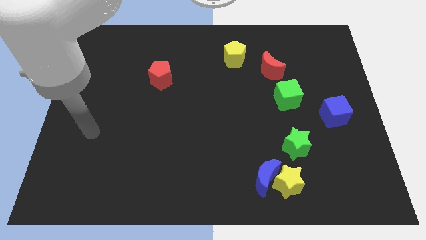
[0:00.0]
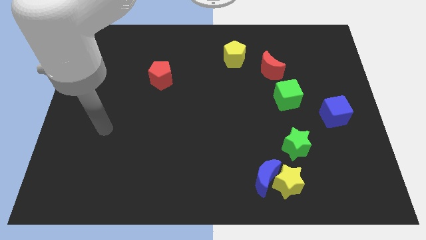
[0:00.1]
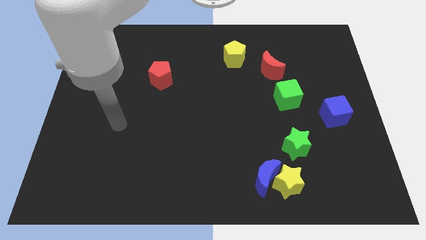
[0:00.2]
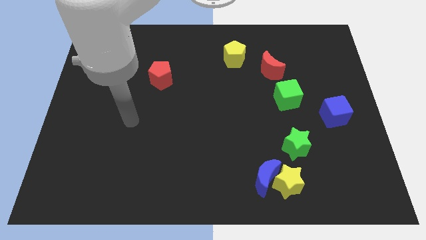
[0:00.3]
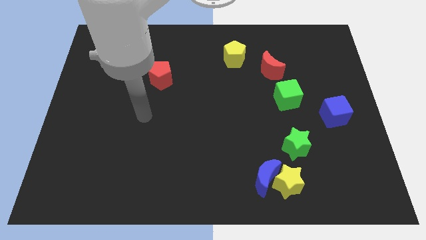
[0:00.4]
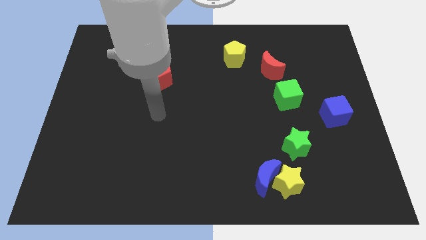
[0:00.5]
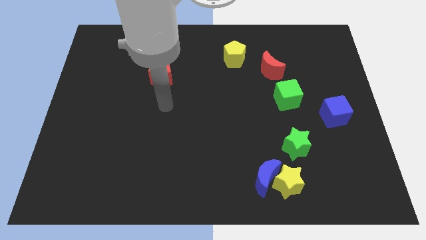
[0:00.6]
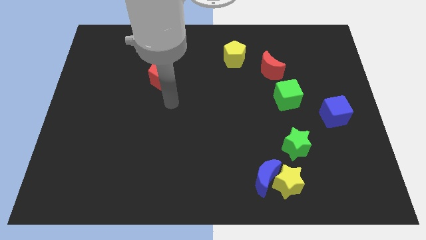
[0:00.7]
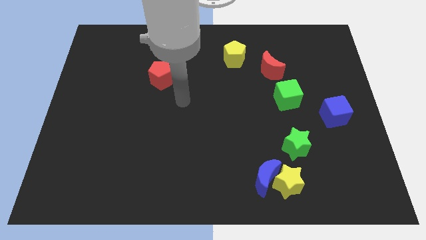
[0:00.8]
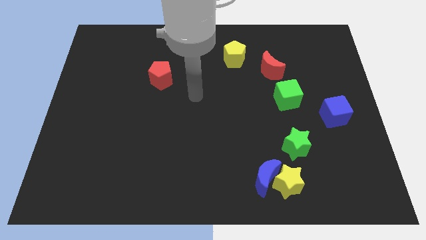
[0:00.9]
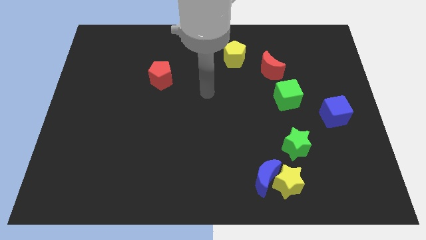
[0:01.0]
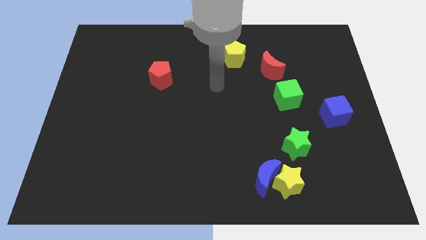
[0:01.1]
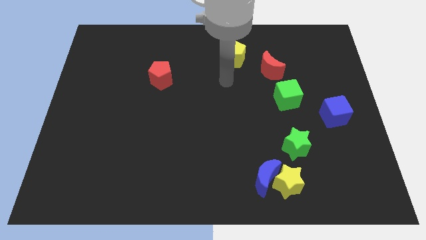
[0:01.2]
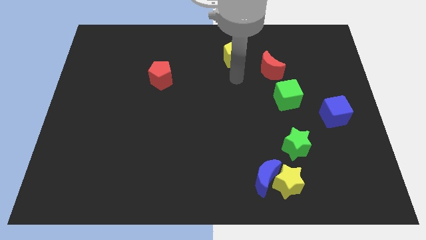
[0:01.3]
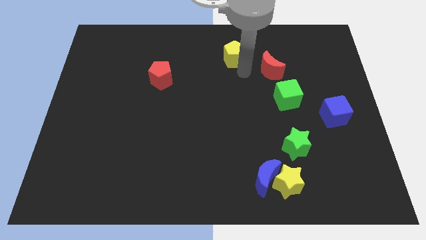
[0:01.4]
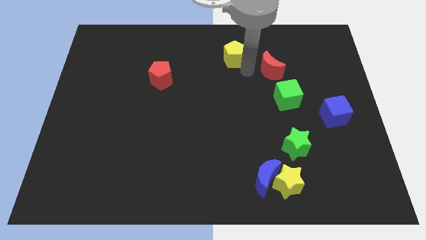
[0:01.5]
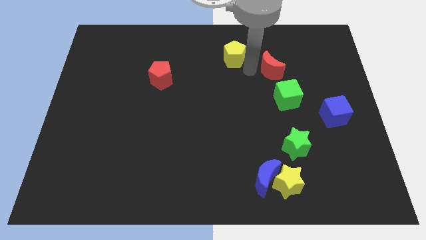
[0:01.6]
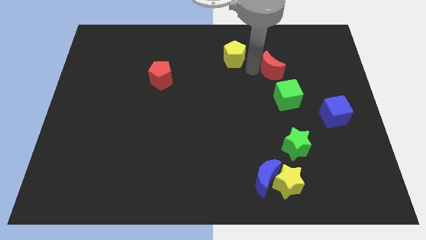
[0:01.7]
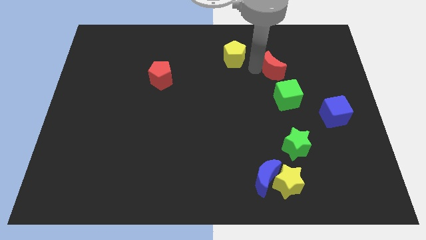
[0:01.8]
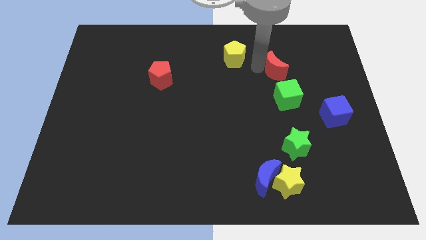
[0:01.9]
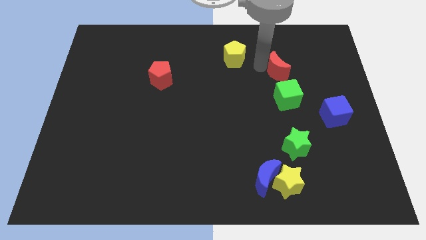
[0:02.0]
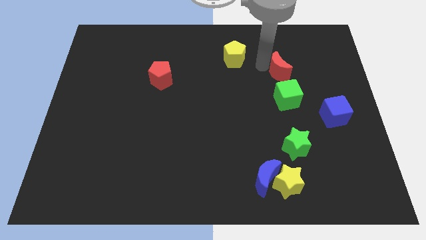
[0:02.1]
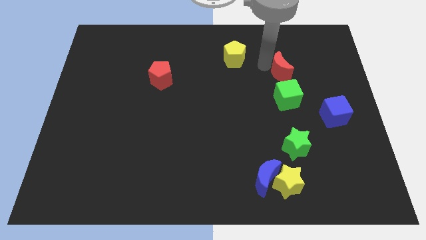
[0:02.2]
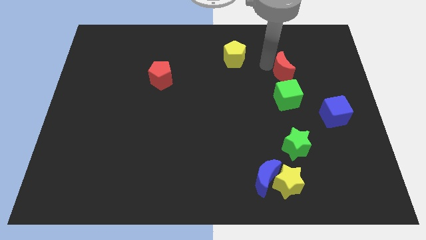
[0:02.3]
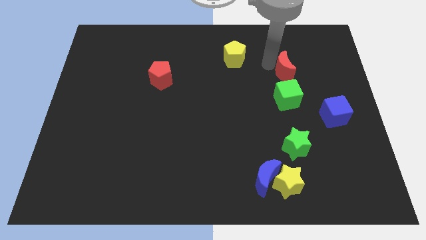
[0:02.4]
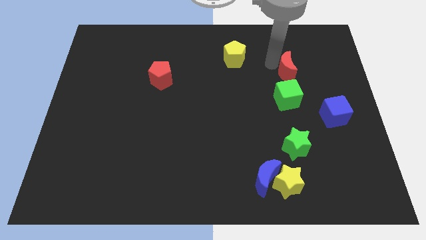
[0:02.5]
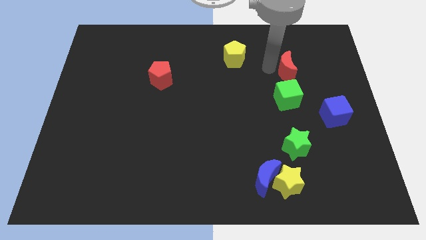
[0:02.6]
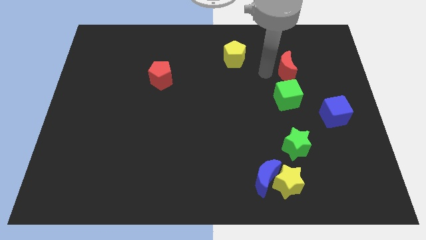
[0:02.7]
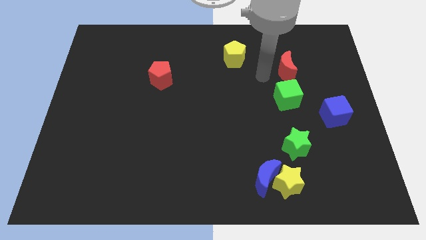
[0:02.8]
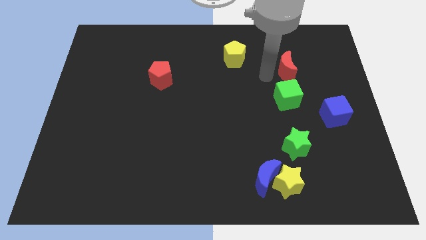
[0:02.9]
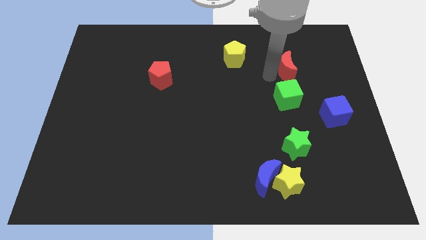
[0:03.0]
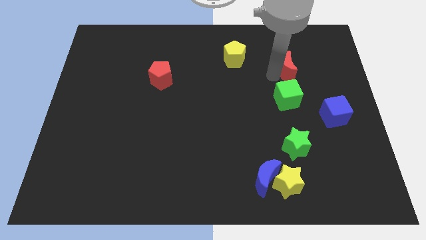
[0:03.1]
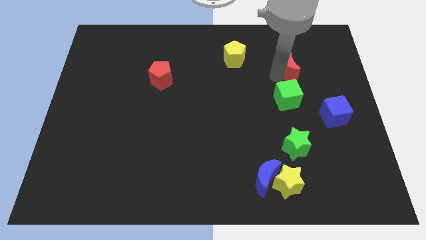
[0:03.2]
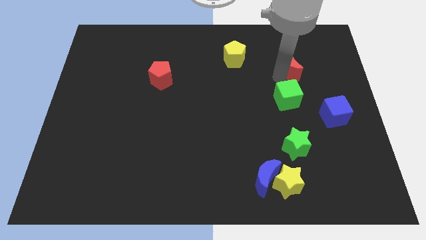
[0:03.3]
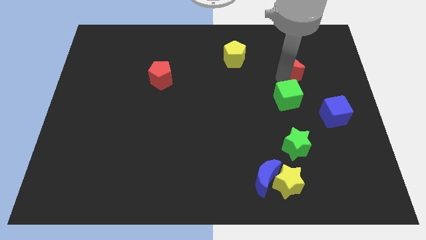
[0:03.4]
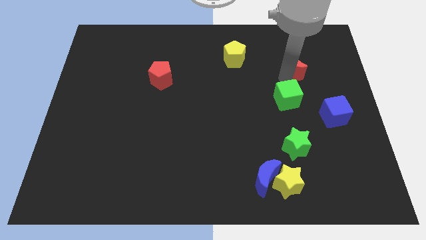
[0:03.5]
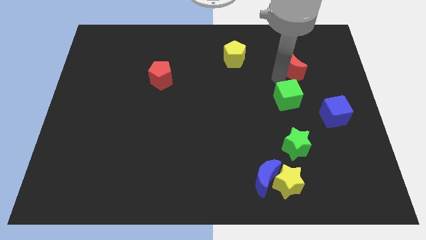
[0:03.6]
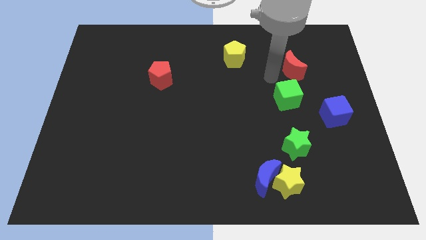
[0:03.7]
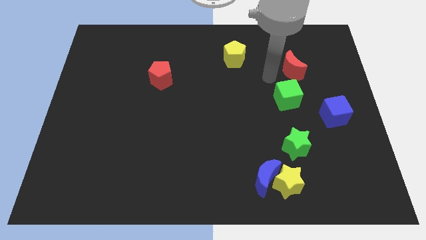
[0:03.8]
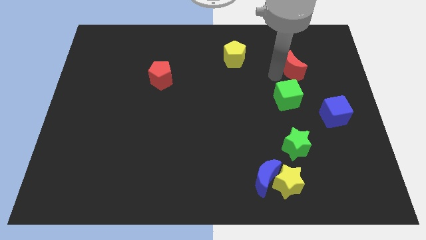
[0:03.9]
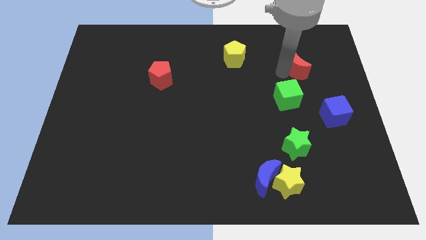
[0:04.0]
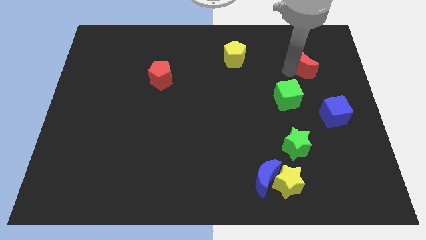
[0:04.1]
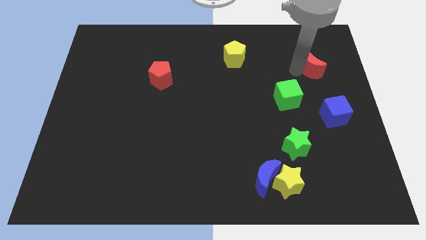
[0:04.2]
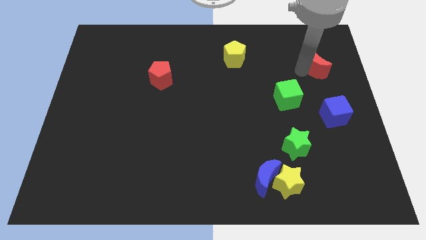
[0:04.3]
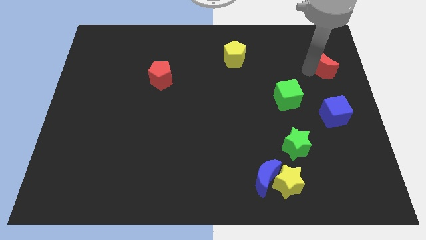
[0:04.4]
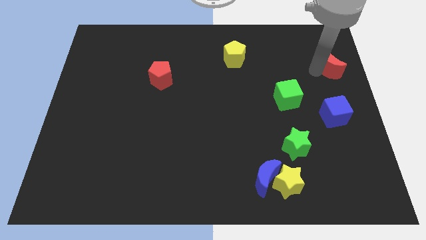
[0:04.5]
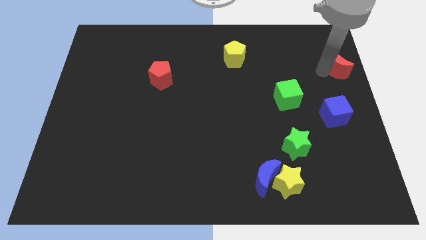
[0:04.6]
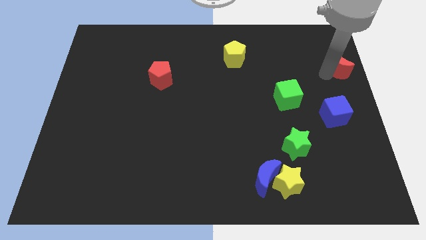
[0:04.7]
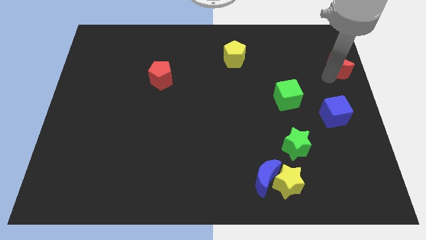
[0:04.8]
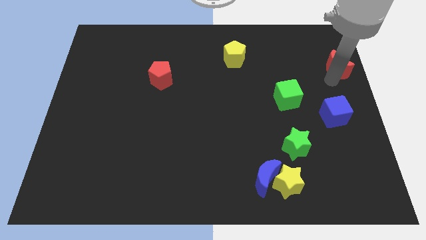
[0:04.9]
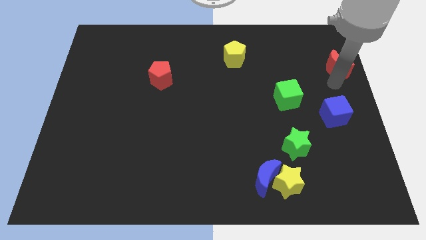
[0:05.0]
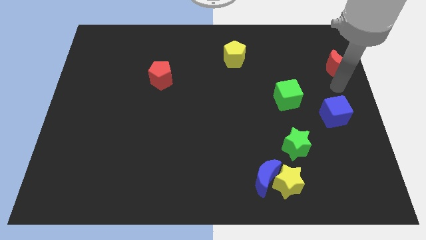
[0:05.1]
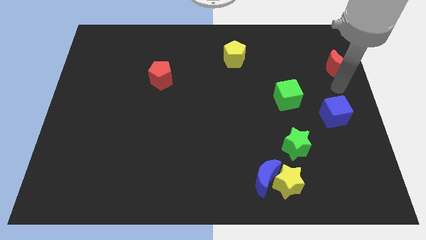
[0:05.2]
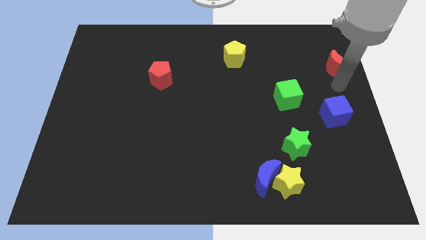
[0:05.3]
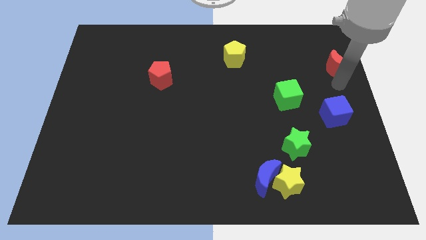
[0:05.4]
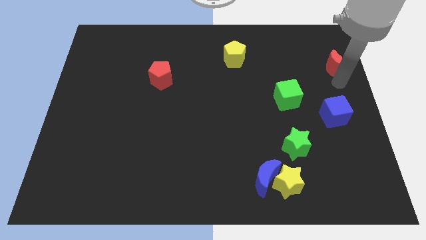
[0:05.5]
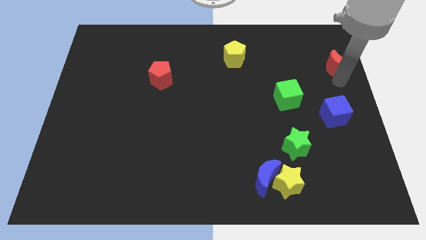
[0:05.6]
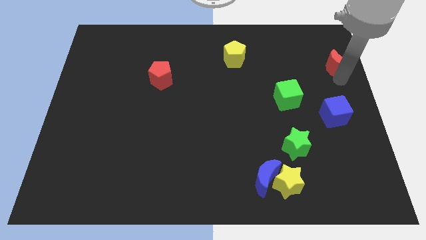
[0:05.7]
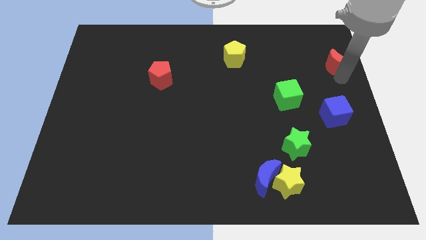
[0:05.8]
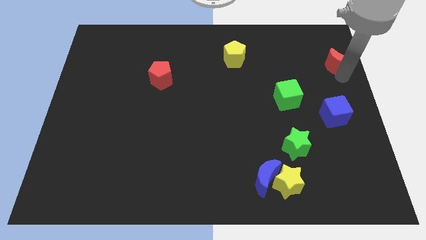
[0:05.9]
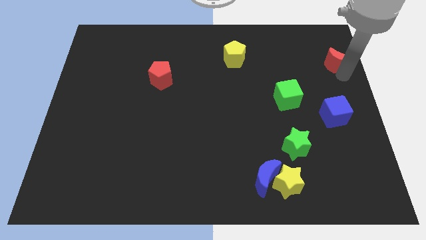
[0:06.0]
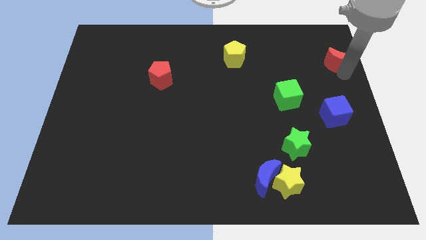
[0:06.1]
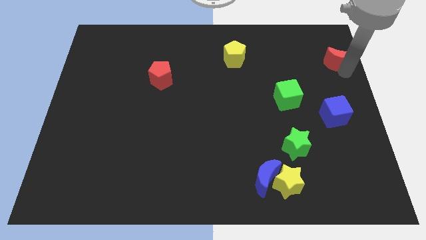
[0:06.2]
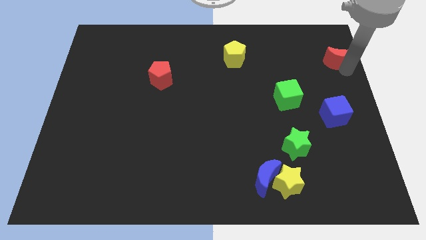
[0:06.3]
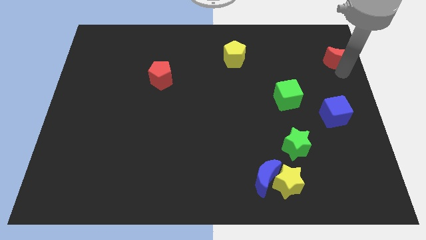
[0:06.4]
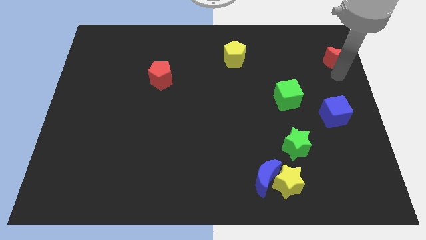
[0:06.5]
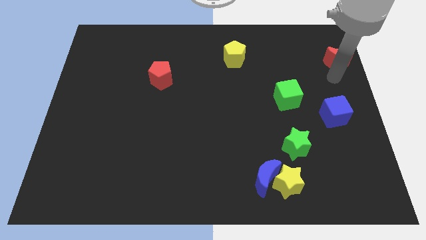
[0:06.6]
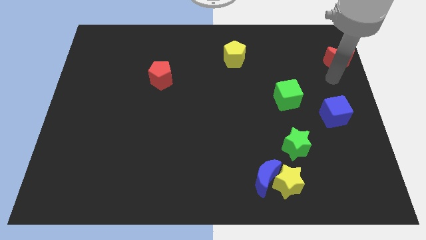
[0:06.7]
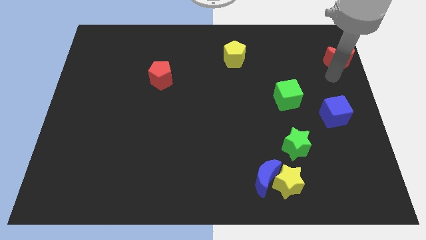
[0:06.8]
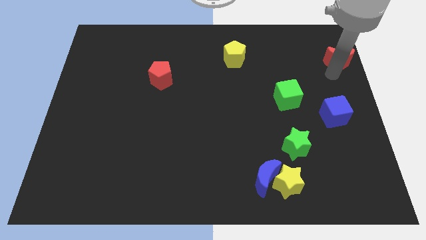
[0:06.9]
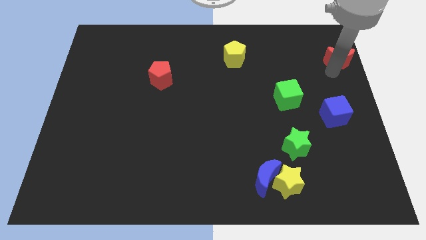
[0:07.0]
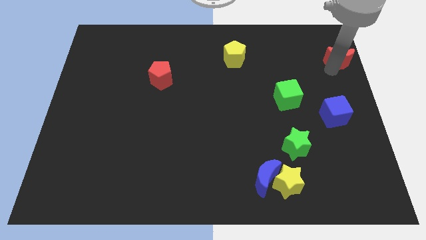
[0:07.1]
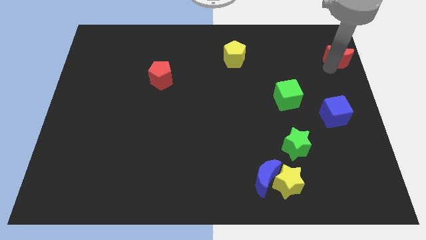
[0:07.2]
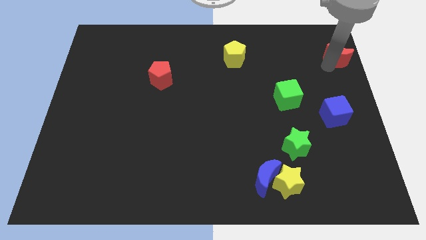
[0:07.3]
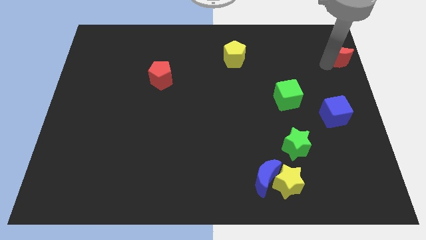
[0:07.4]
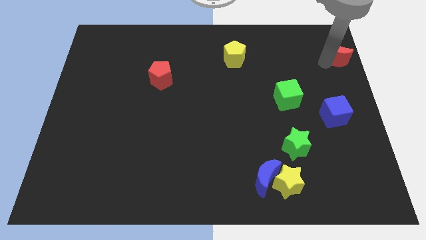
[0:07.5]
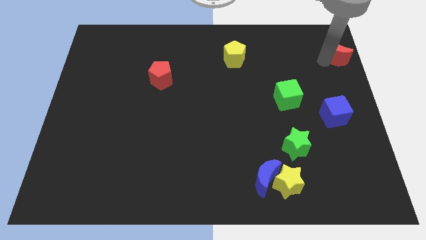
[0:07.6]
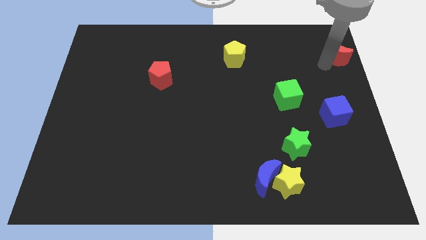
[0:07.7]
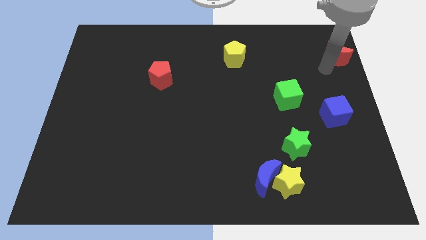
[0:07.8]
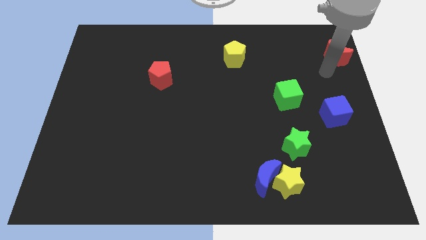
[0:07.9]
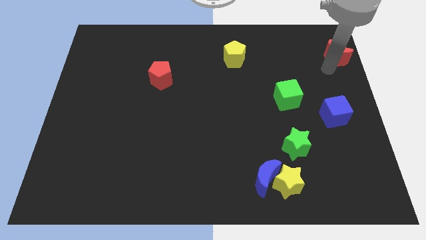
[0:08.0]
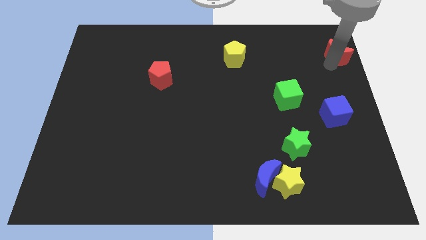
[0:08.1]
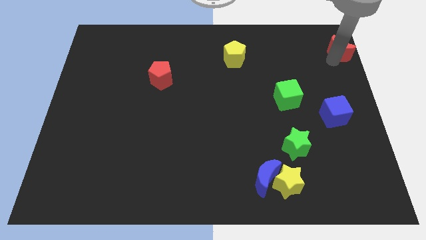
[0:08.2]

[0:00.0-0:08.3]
push the red moon to the top right
